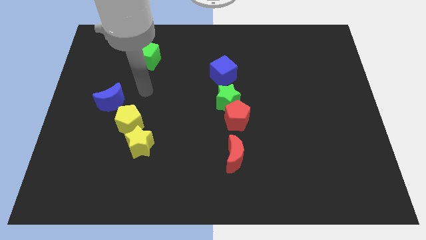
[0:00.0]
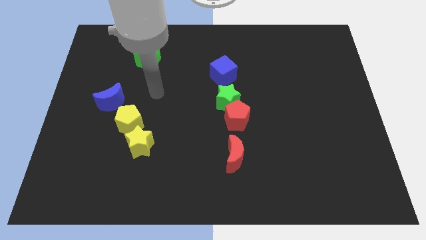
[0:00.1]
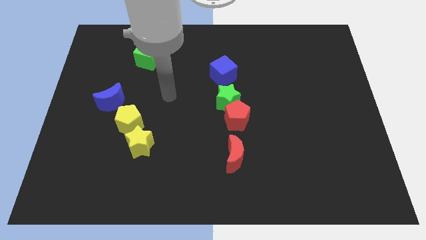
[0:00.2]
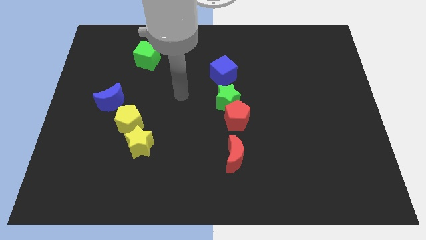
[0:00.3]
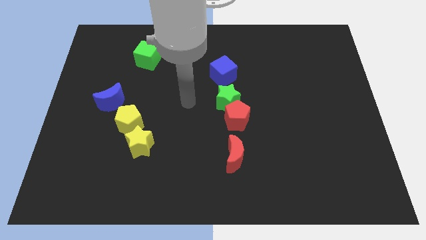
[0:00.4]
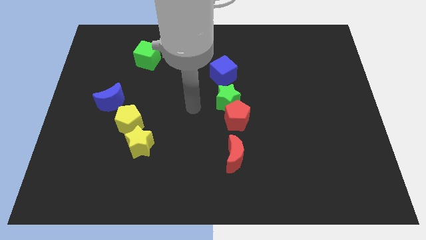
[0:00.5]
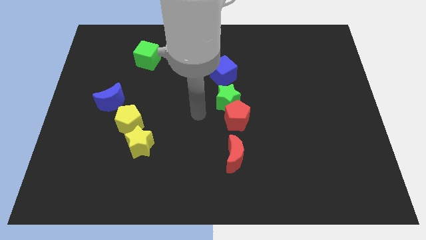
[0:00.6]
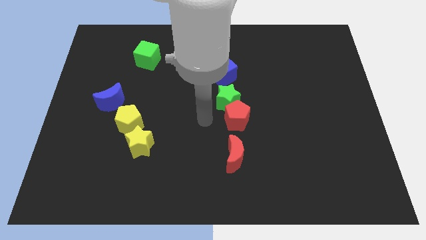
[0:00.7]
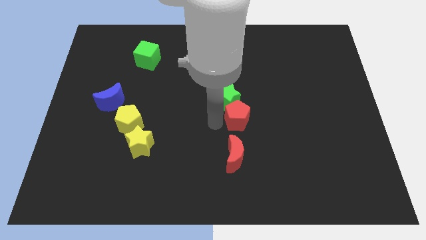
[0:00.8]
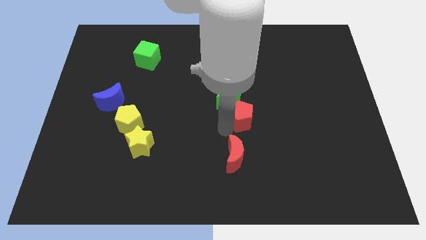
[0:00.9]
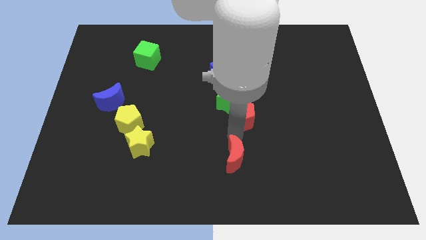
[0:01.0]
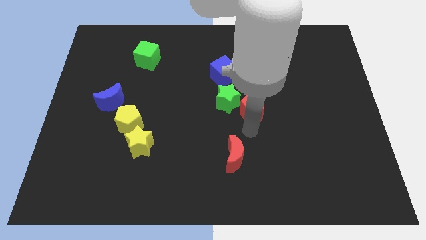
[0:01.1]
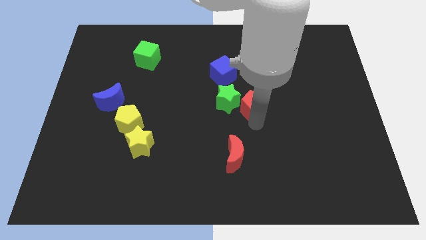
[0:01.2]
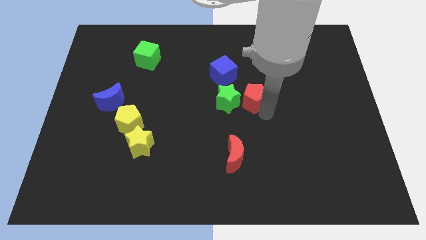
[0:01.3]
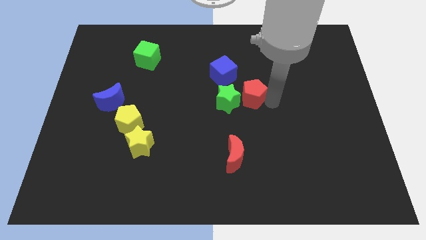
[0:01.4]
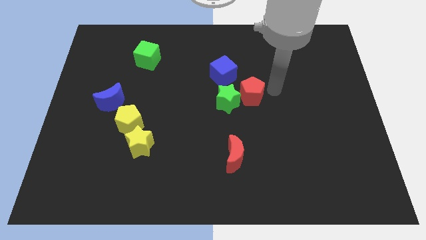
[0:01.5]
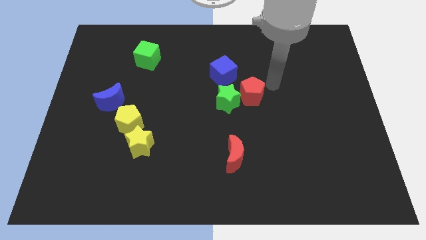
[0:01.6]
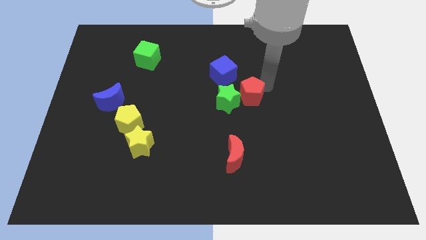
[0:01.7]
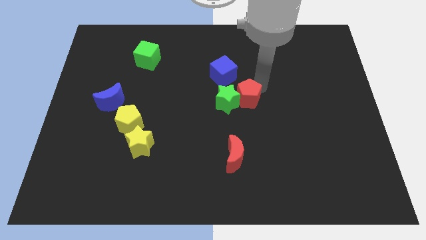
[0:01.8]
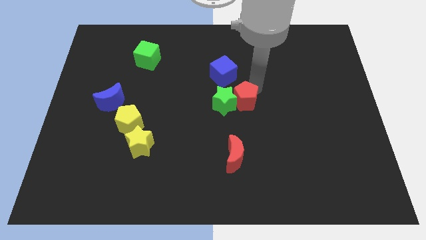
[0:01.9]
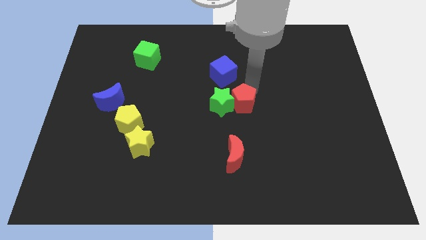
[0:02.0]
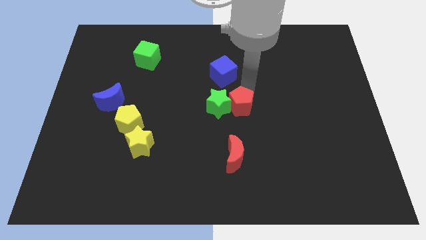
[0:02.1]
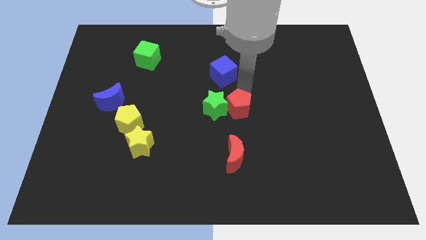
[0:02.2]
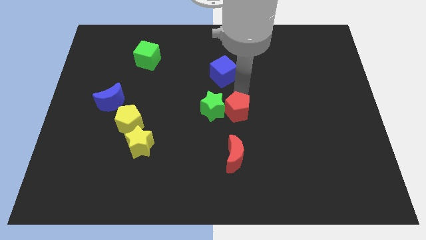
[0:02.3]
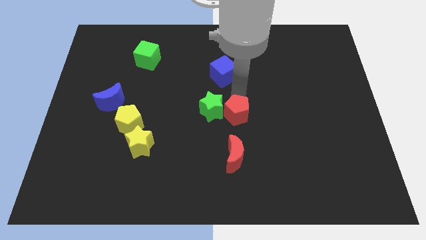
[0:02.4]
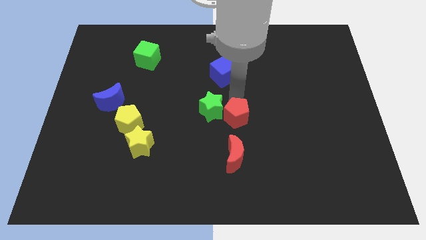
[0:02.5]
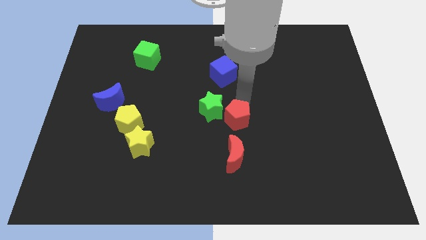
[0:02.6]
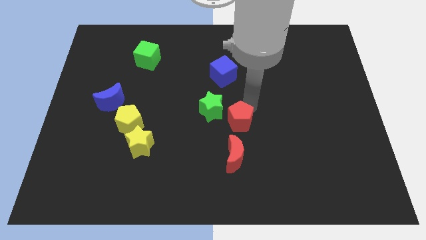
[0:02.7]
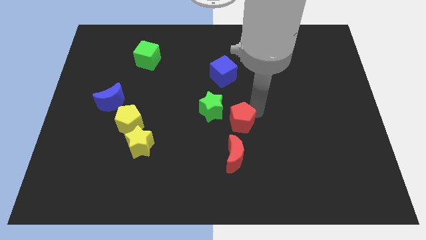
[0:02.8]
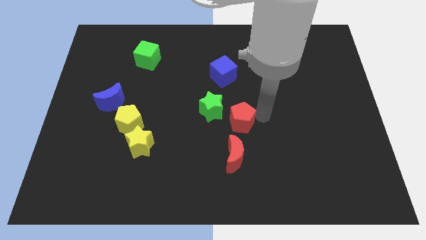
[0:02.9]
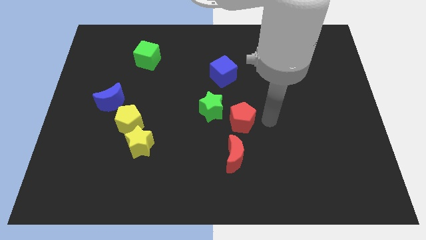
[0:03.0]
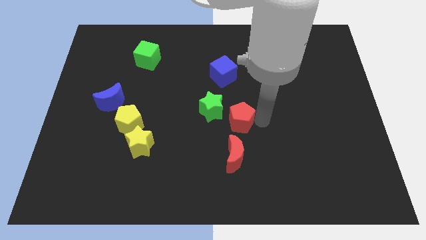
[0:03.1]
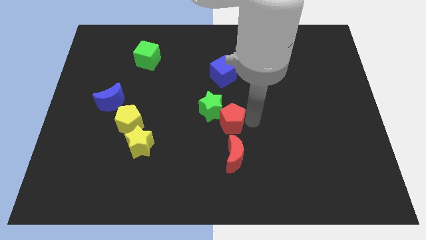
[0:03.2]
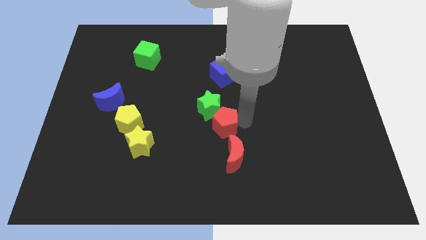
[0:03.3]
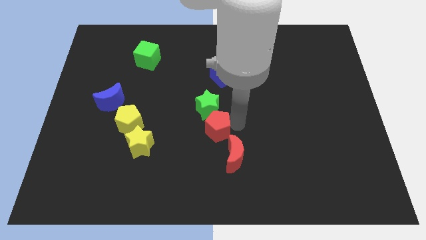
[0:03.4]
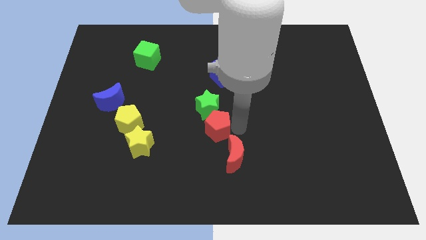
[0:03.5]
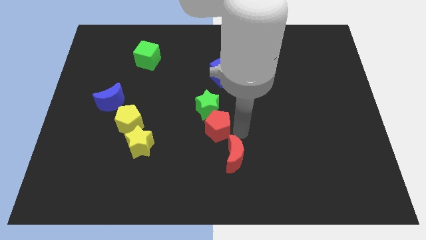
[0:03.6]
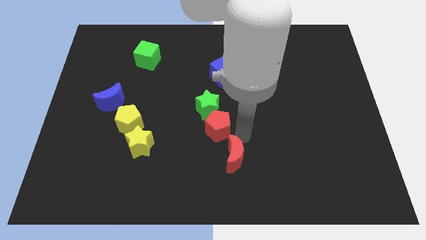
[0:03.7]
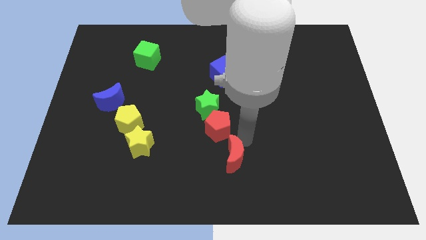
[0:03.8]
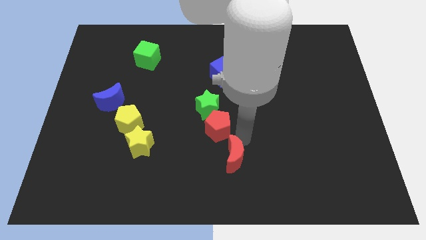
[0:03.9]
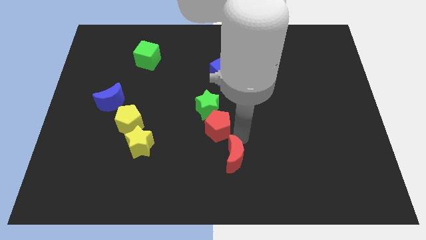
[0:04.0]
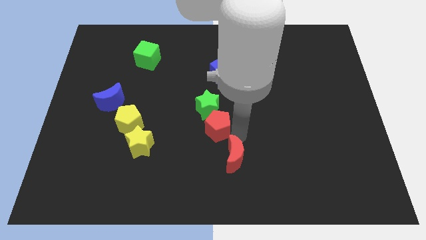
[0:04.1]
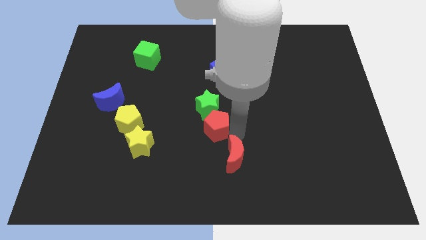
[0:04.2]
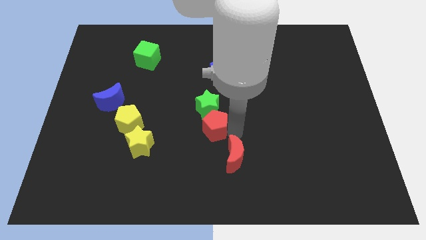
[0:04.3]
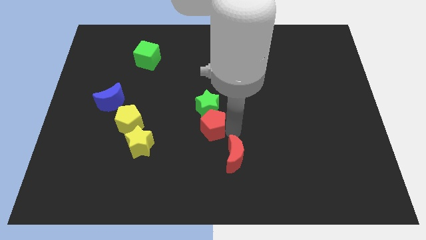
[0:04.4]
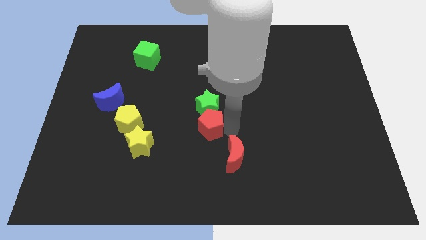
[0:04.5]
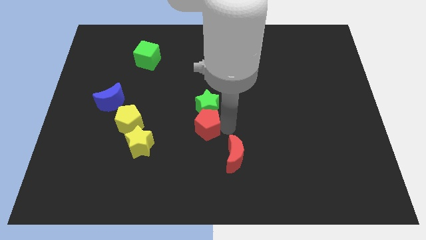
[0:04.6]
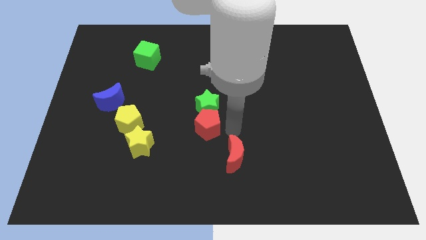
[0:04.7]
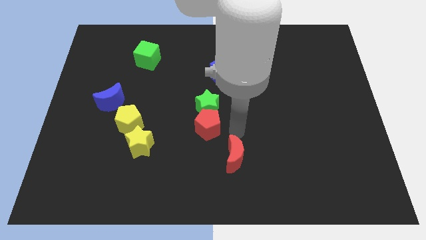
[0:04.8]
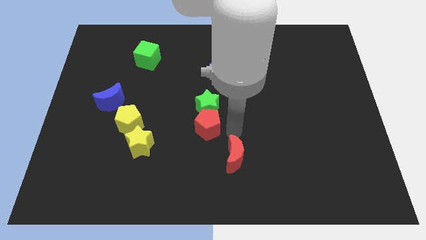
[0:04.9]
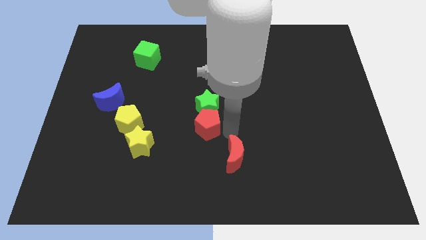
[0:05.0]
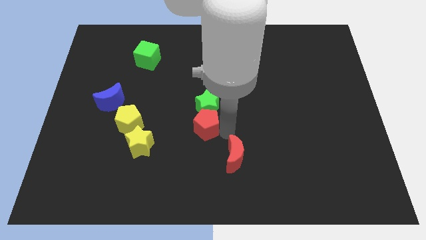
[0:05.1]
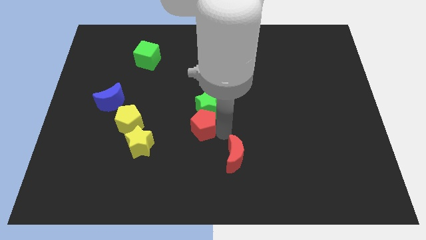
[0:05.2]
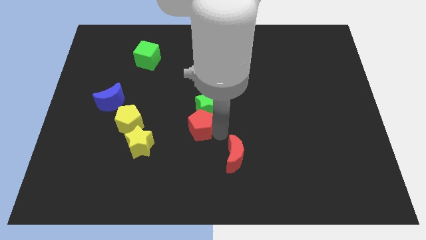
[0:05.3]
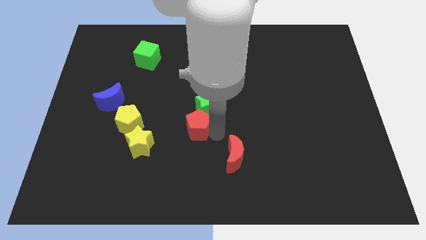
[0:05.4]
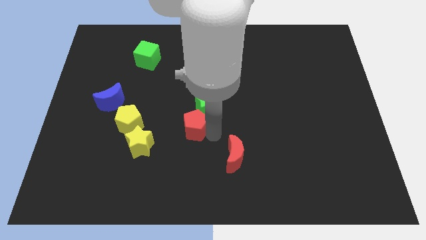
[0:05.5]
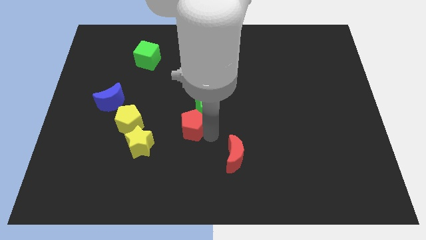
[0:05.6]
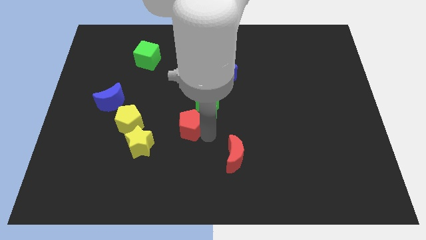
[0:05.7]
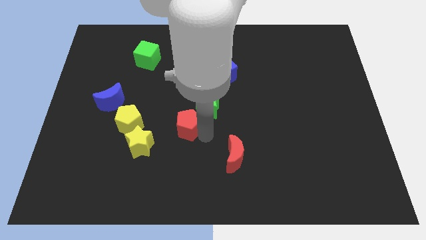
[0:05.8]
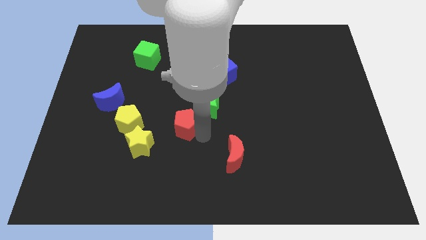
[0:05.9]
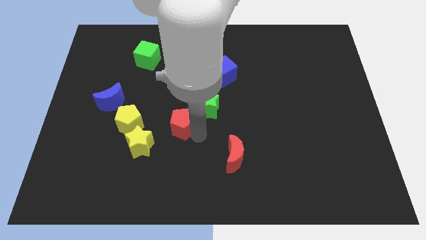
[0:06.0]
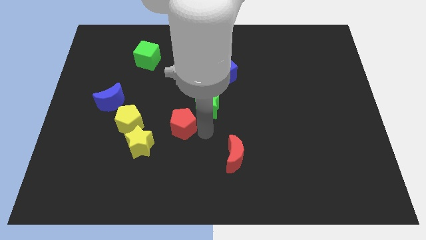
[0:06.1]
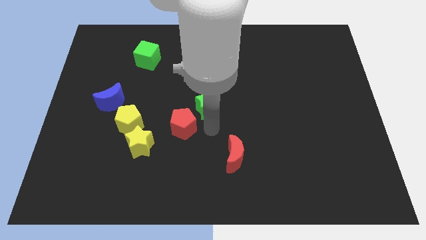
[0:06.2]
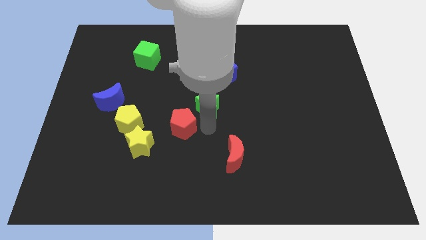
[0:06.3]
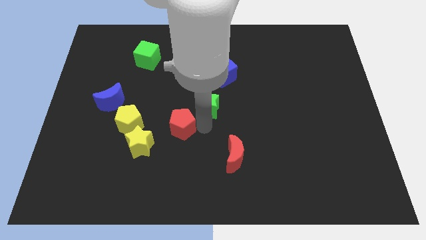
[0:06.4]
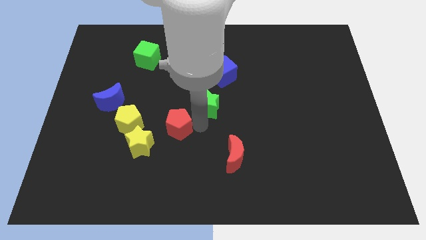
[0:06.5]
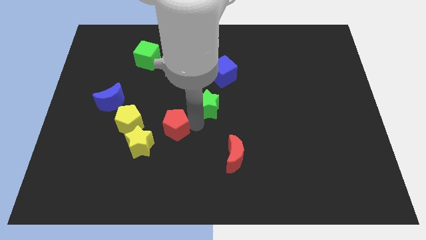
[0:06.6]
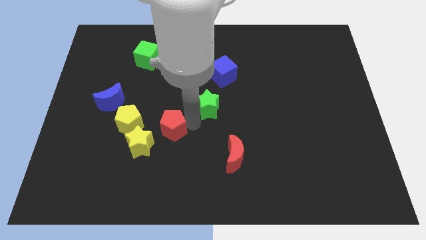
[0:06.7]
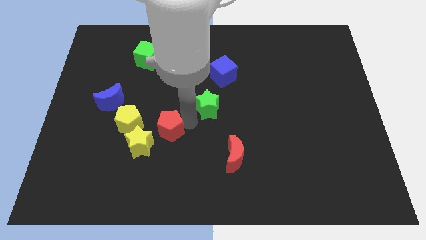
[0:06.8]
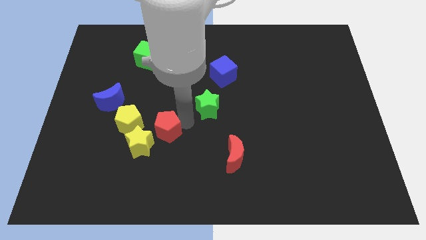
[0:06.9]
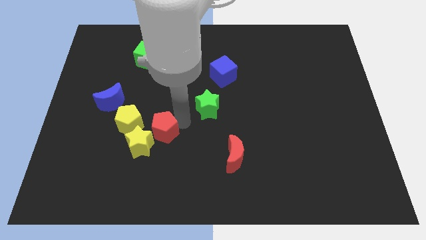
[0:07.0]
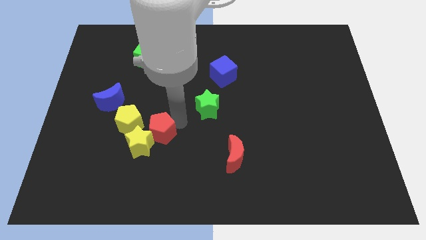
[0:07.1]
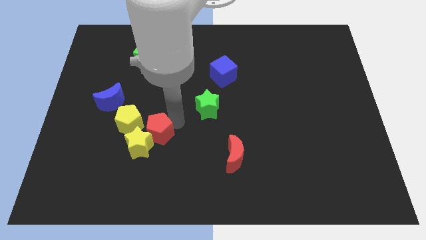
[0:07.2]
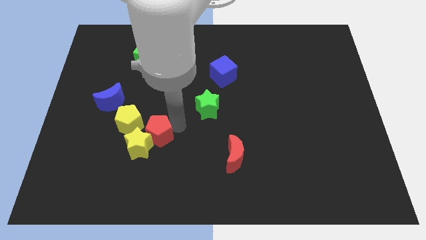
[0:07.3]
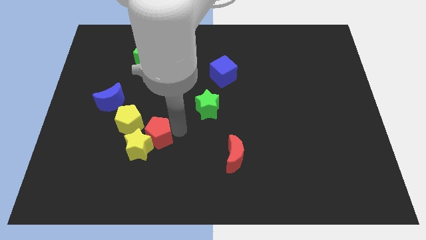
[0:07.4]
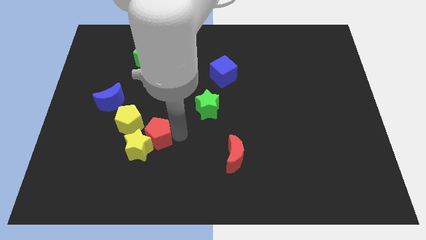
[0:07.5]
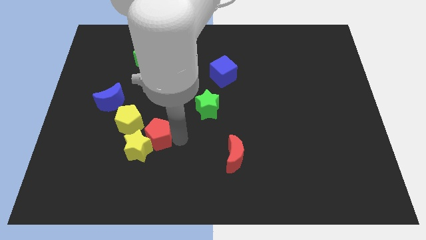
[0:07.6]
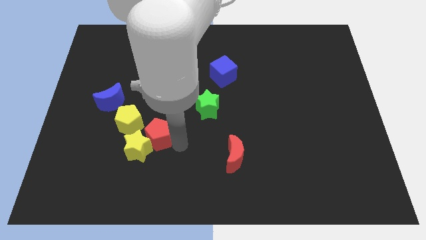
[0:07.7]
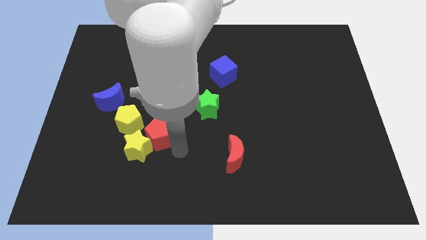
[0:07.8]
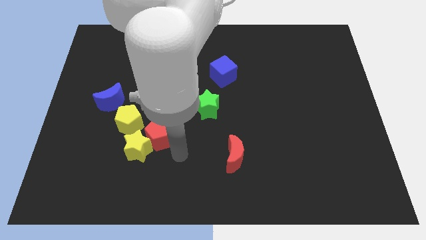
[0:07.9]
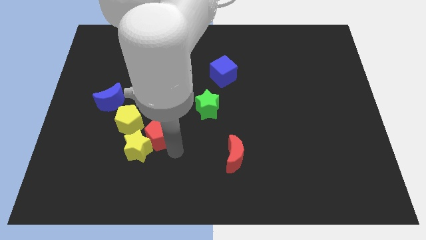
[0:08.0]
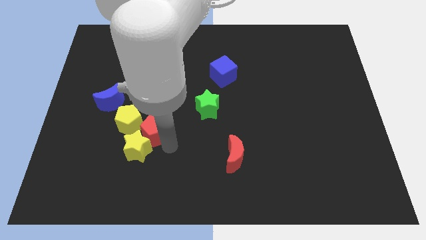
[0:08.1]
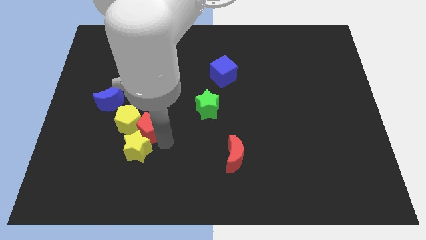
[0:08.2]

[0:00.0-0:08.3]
slide the red pentagon to the yellow pentagon
